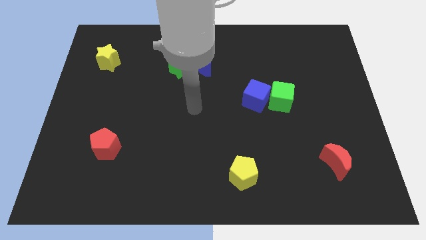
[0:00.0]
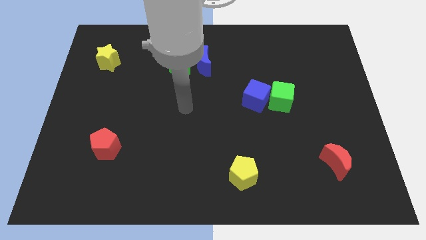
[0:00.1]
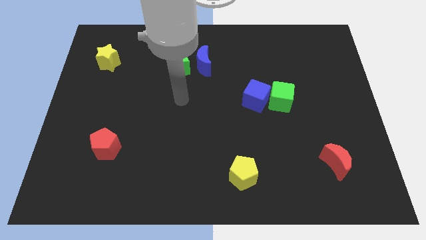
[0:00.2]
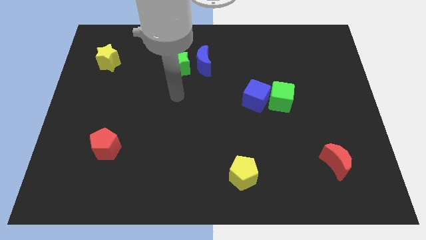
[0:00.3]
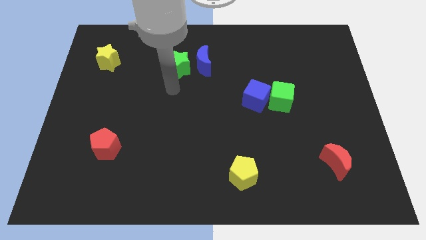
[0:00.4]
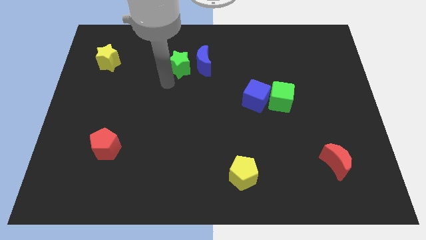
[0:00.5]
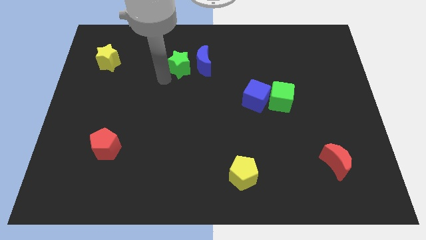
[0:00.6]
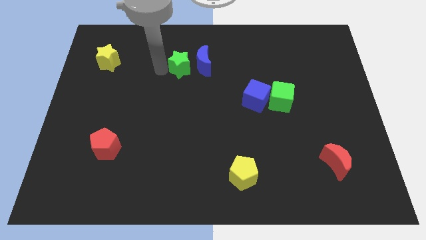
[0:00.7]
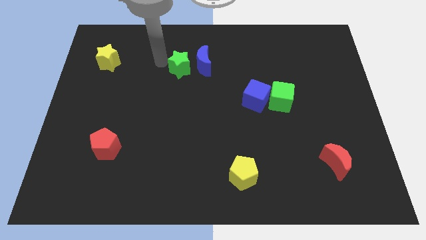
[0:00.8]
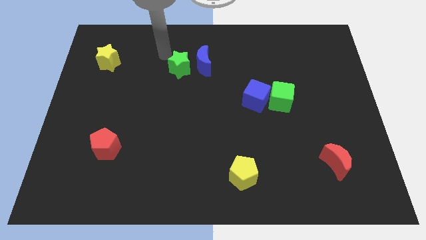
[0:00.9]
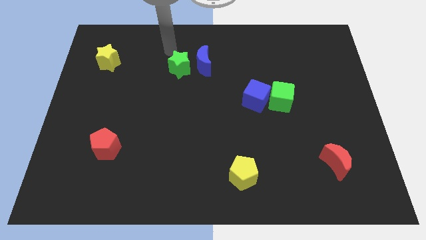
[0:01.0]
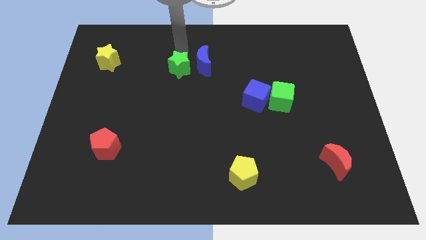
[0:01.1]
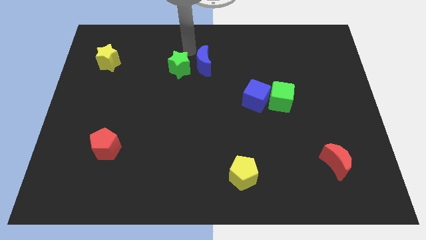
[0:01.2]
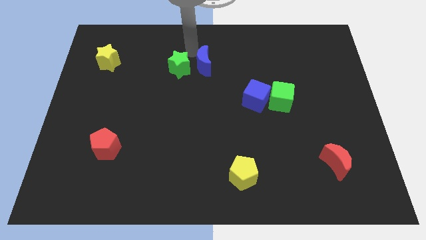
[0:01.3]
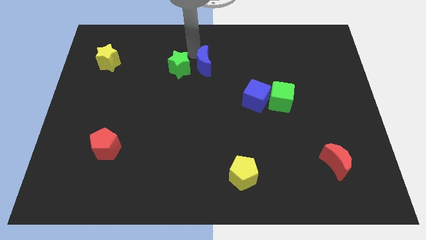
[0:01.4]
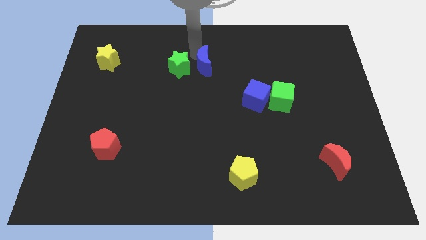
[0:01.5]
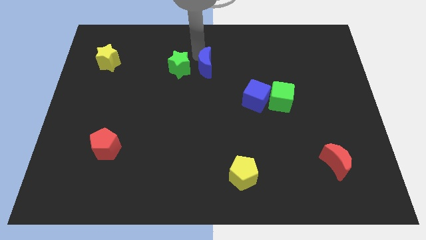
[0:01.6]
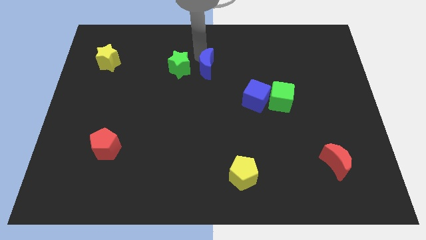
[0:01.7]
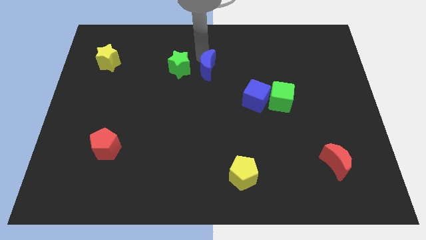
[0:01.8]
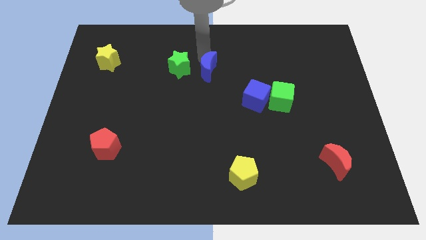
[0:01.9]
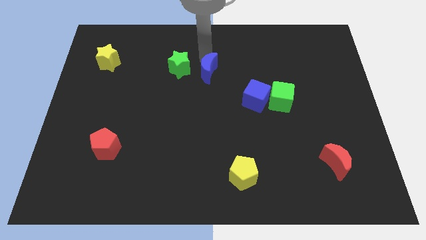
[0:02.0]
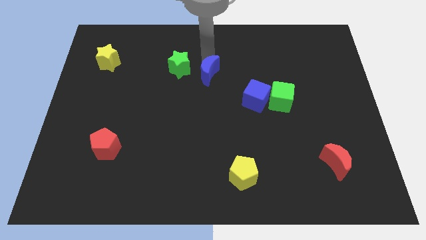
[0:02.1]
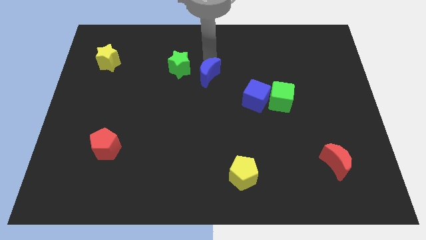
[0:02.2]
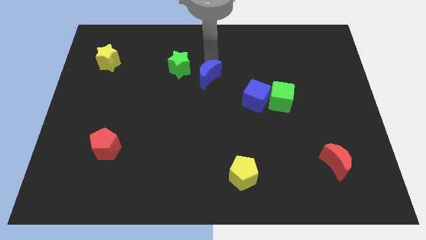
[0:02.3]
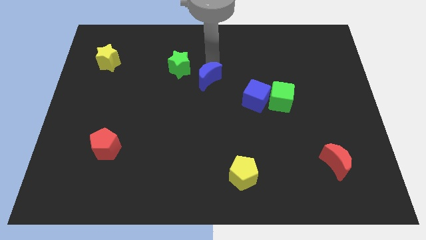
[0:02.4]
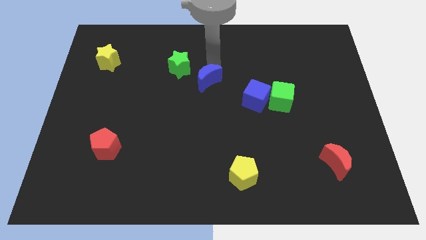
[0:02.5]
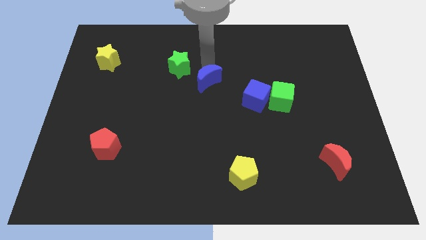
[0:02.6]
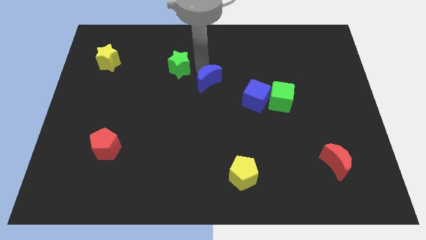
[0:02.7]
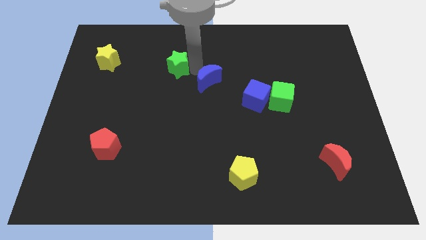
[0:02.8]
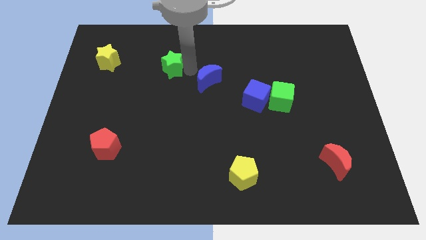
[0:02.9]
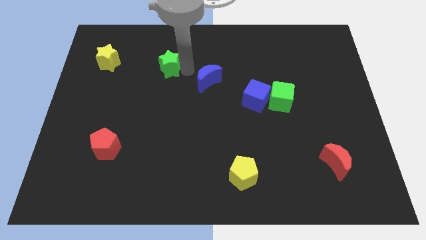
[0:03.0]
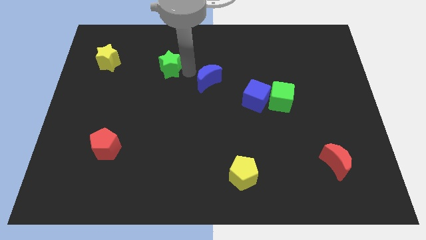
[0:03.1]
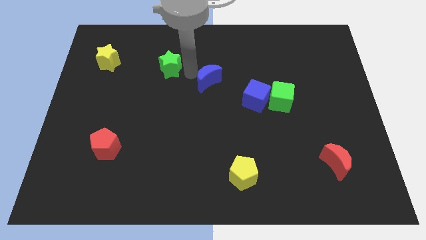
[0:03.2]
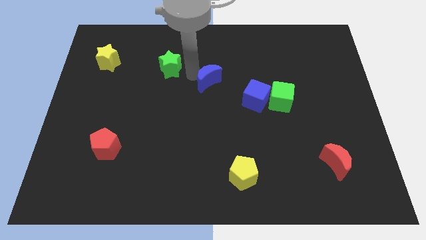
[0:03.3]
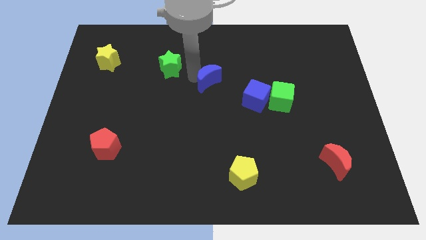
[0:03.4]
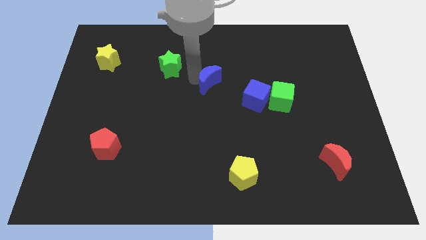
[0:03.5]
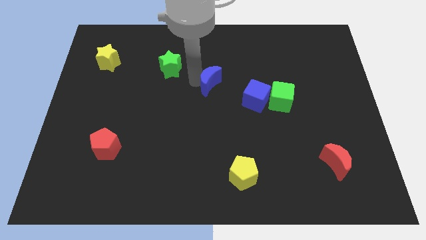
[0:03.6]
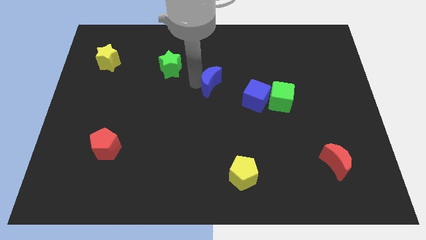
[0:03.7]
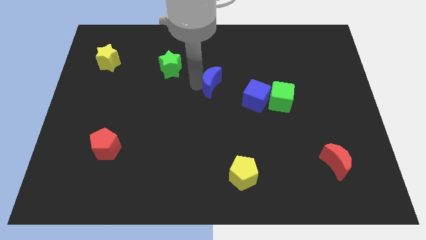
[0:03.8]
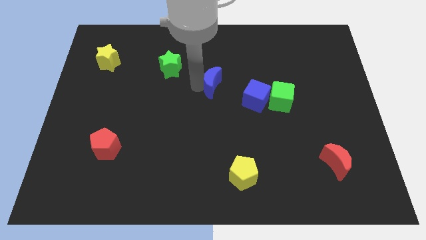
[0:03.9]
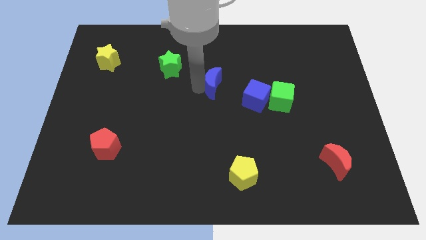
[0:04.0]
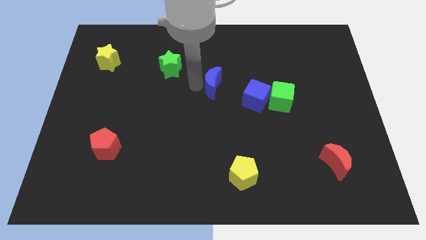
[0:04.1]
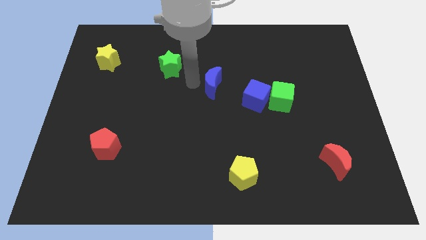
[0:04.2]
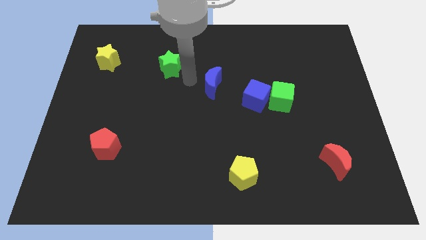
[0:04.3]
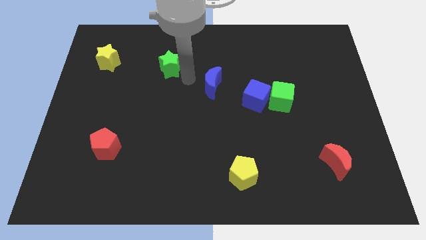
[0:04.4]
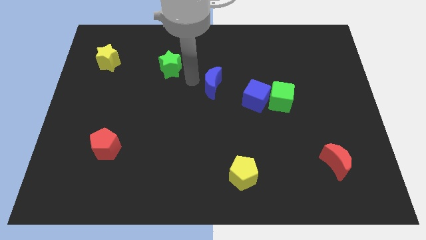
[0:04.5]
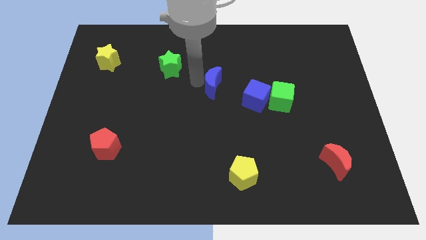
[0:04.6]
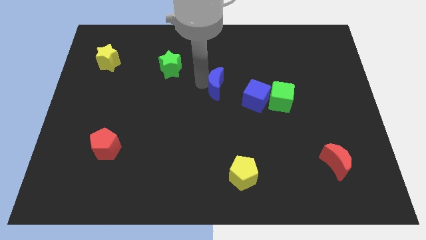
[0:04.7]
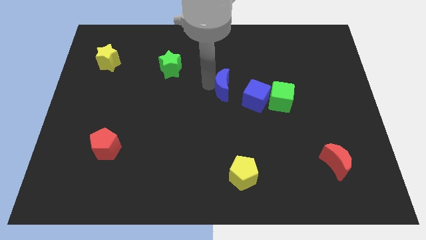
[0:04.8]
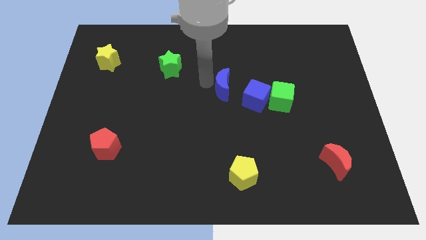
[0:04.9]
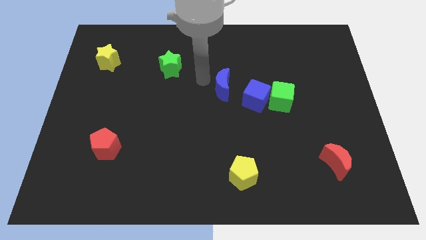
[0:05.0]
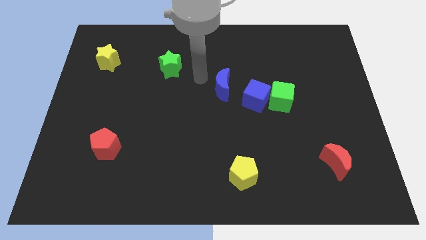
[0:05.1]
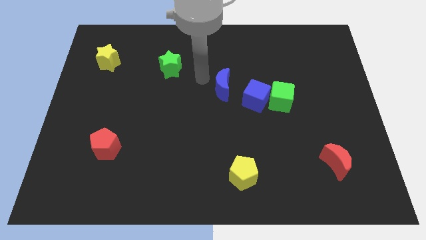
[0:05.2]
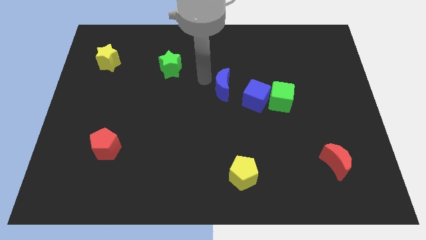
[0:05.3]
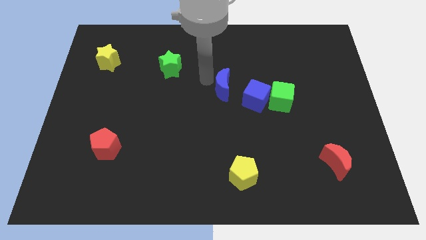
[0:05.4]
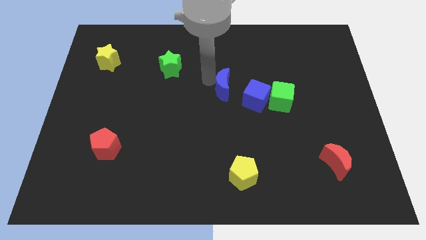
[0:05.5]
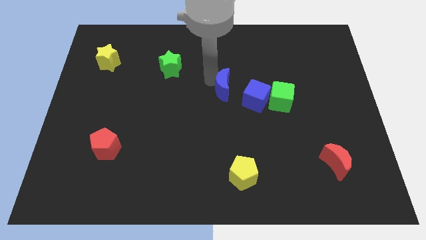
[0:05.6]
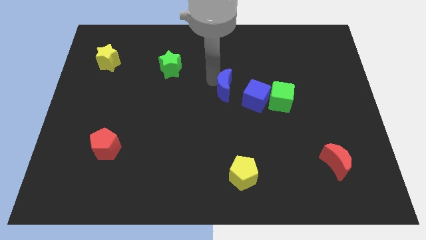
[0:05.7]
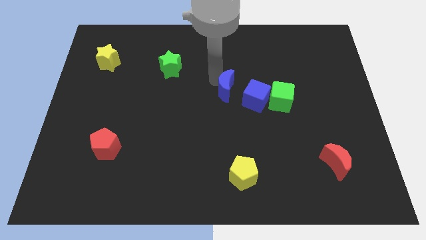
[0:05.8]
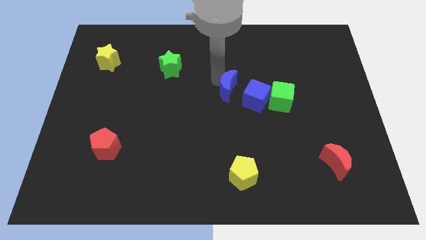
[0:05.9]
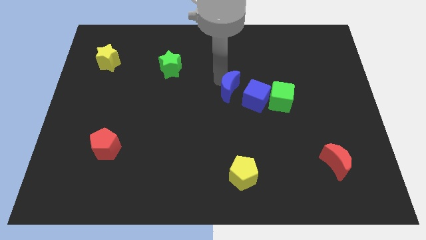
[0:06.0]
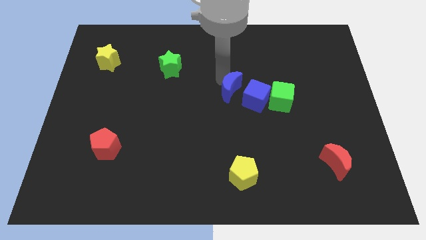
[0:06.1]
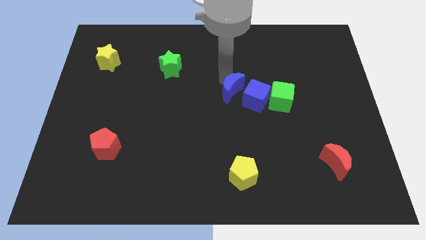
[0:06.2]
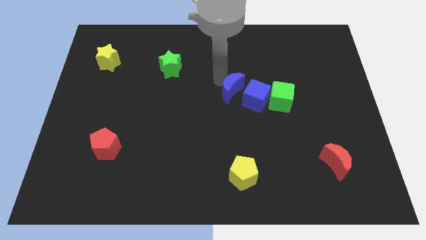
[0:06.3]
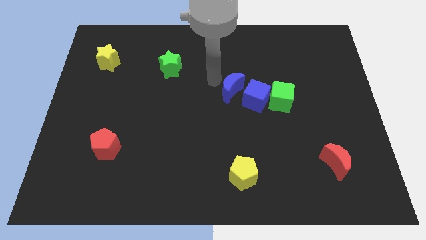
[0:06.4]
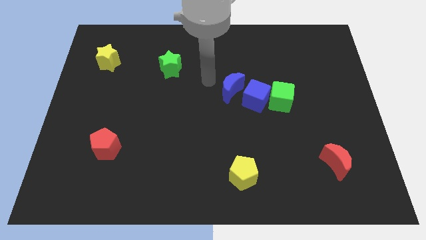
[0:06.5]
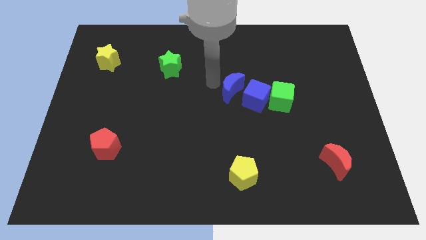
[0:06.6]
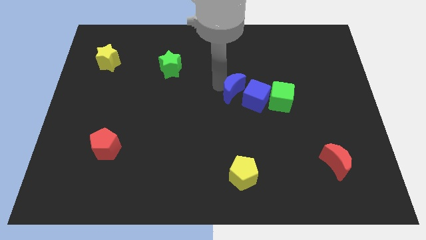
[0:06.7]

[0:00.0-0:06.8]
move the blue moon next to the blue cube

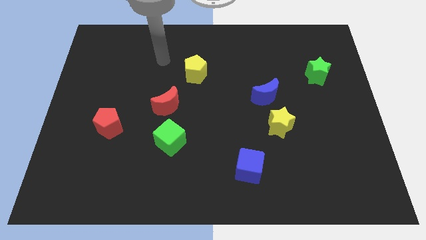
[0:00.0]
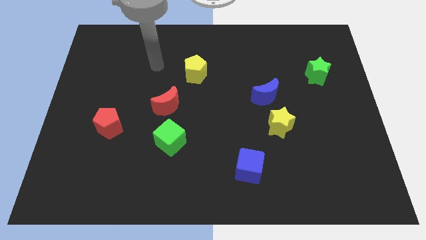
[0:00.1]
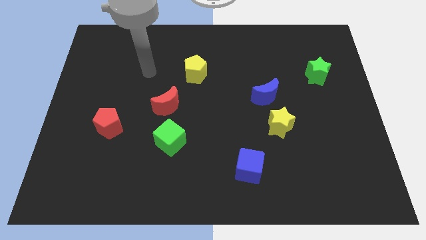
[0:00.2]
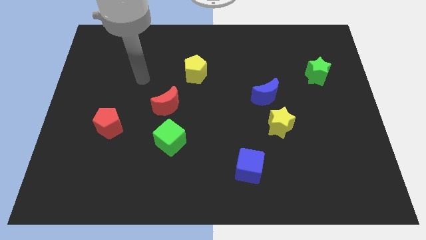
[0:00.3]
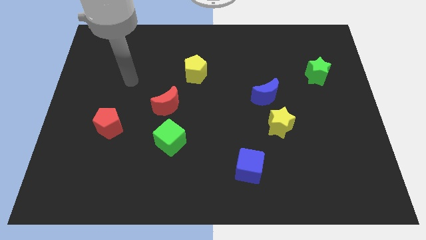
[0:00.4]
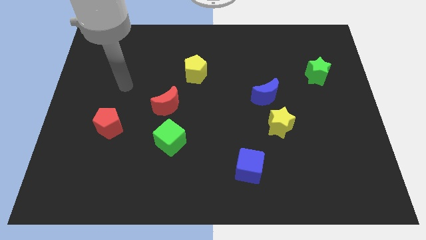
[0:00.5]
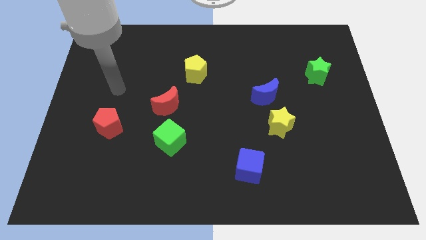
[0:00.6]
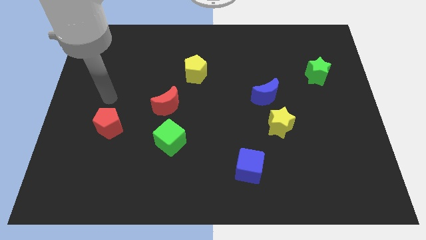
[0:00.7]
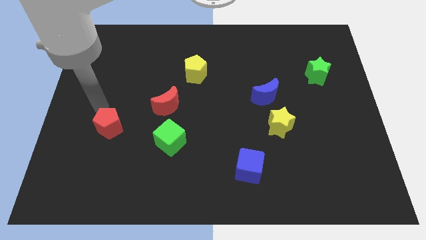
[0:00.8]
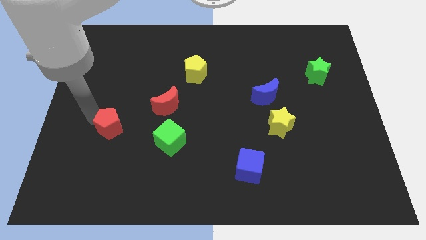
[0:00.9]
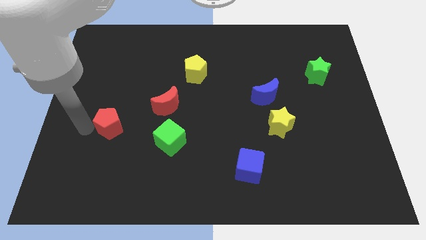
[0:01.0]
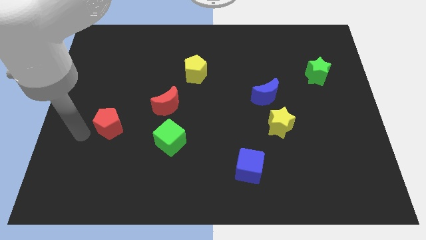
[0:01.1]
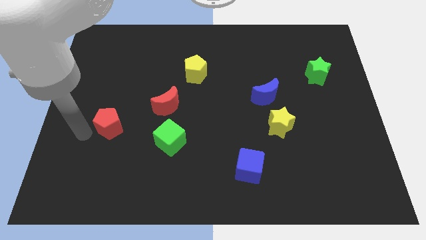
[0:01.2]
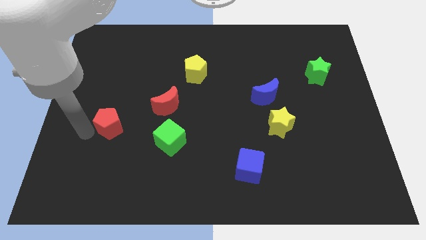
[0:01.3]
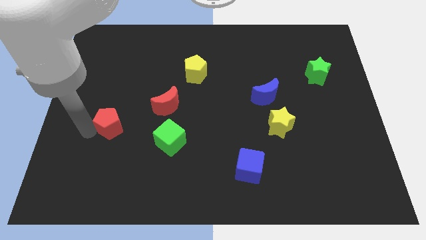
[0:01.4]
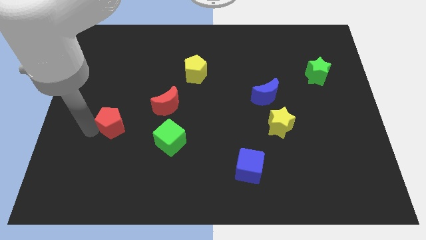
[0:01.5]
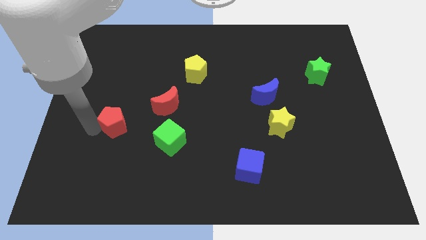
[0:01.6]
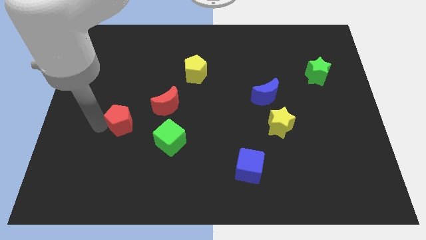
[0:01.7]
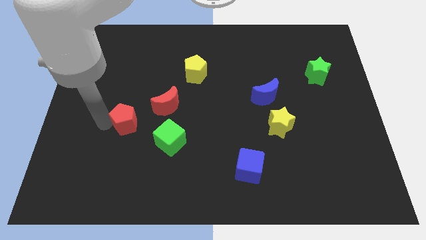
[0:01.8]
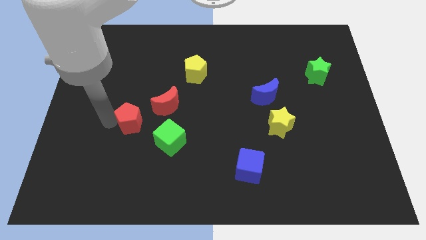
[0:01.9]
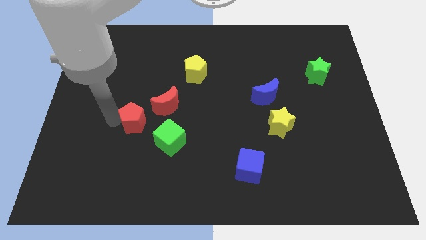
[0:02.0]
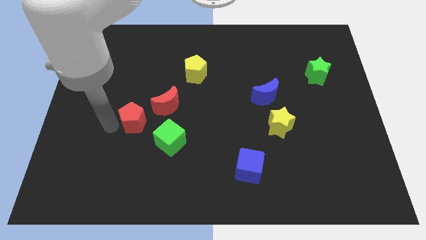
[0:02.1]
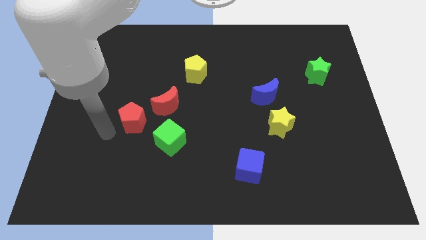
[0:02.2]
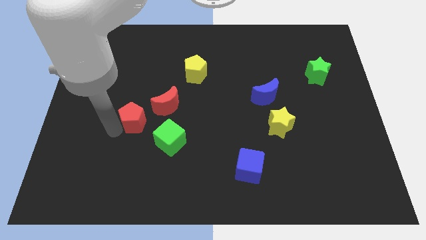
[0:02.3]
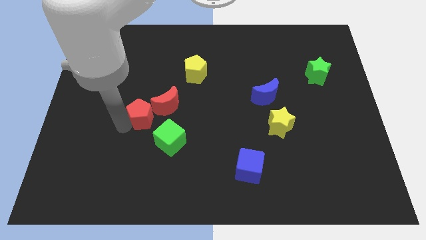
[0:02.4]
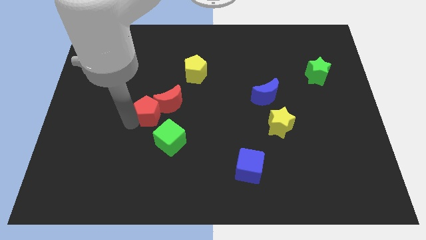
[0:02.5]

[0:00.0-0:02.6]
push the red pentagon next to the red moon
